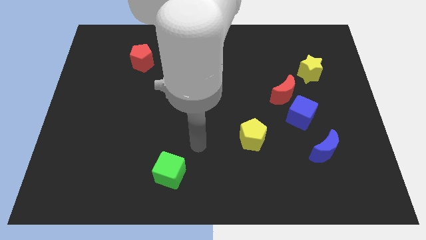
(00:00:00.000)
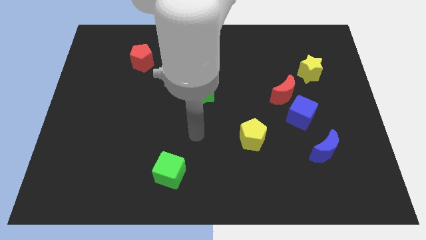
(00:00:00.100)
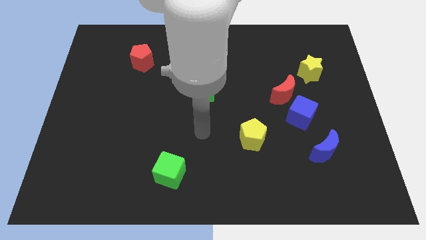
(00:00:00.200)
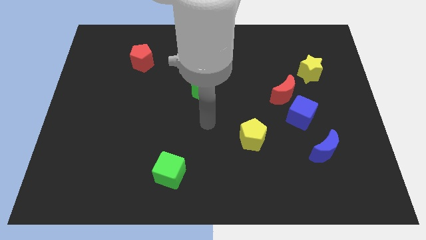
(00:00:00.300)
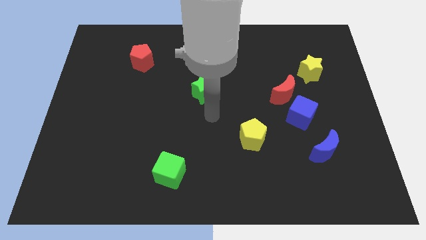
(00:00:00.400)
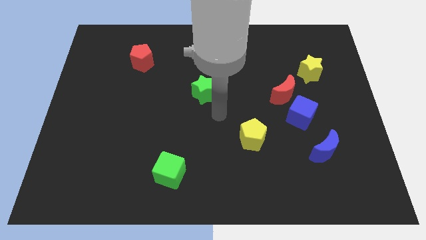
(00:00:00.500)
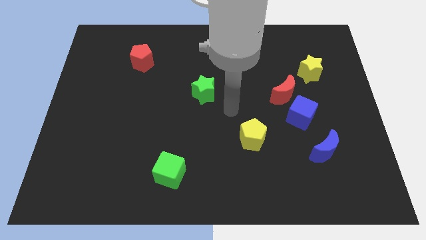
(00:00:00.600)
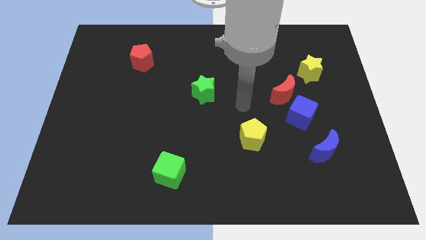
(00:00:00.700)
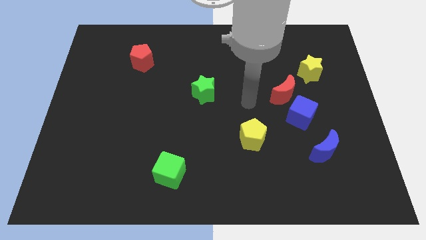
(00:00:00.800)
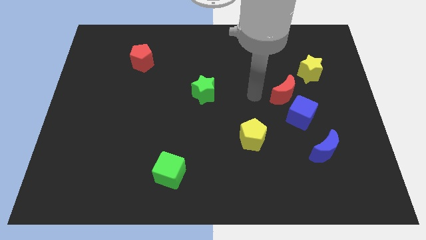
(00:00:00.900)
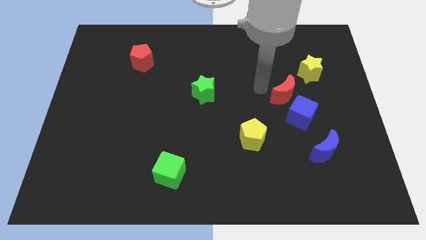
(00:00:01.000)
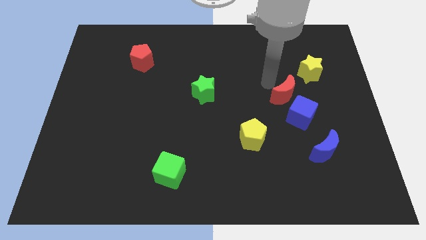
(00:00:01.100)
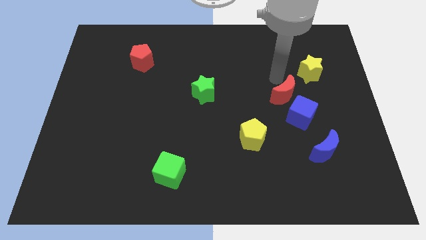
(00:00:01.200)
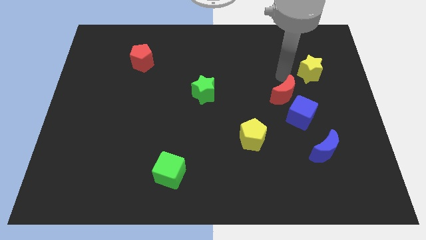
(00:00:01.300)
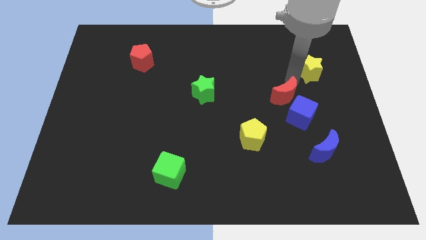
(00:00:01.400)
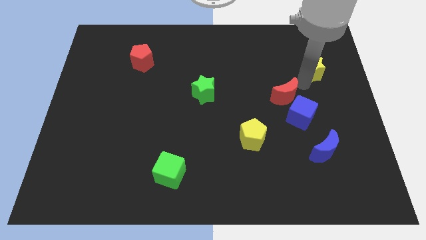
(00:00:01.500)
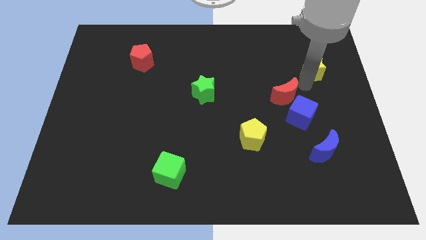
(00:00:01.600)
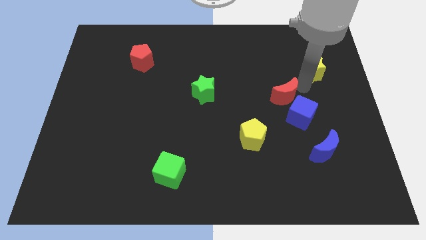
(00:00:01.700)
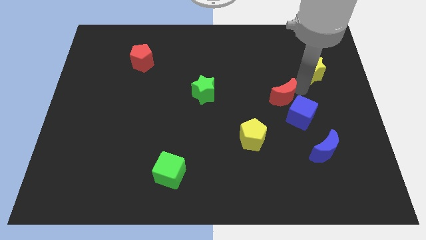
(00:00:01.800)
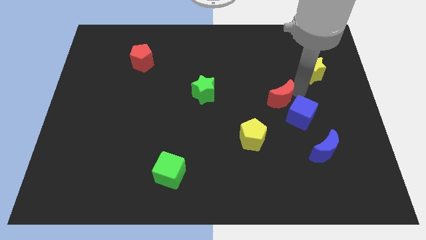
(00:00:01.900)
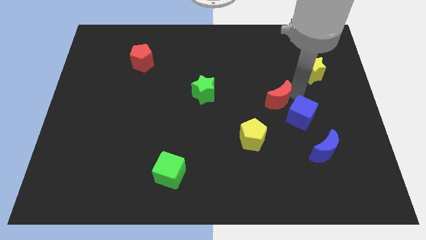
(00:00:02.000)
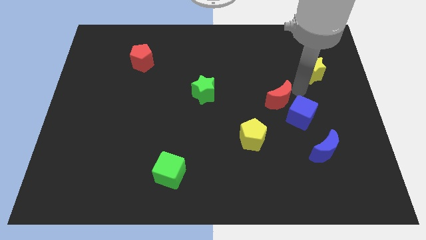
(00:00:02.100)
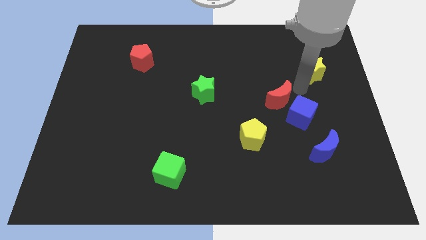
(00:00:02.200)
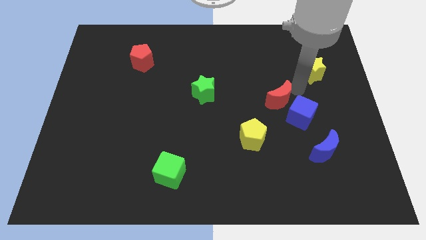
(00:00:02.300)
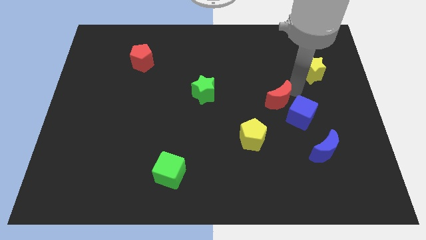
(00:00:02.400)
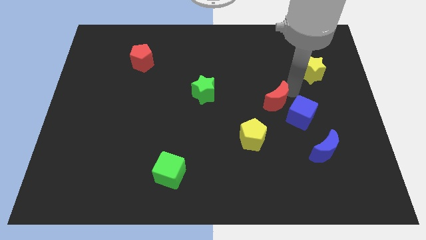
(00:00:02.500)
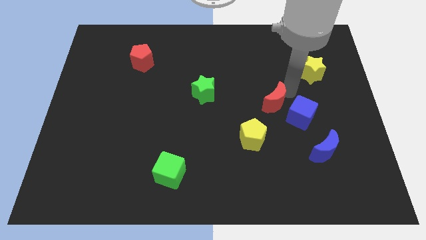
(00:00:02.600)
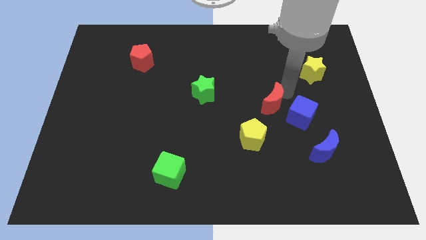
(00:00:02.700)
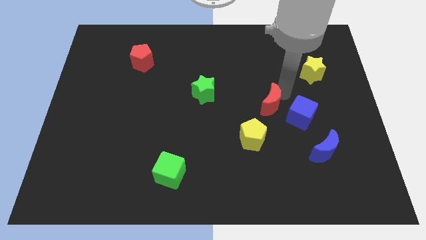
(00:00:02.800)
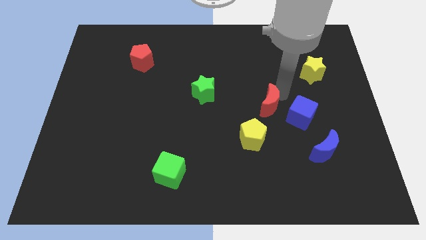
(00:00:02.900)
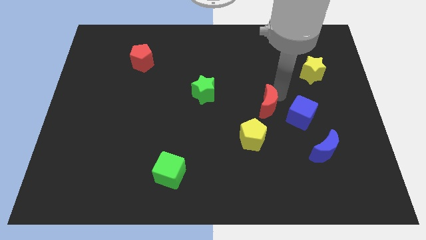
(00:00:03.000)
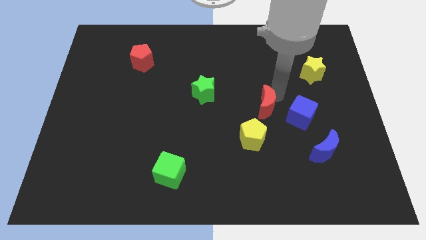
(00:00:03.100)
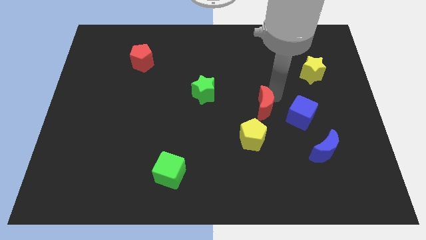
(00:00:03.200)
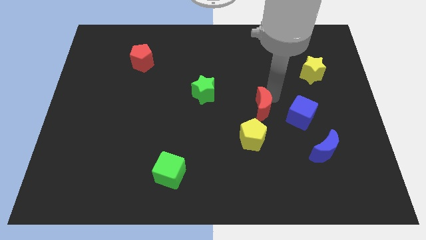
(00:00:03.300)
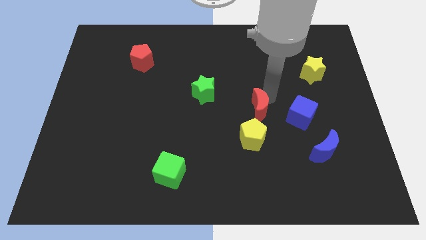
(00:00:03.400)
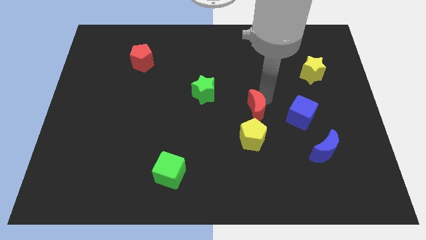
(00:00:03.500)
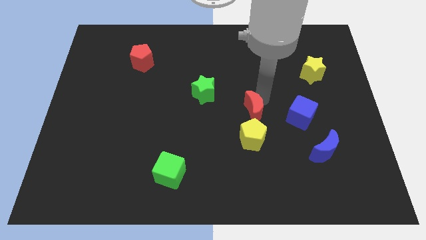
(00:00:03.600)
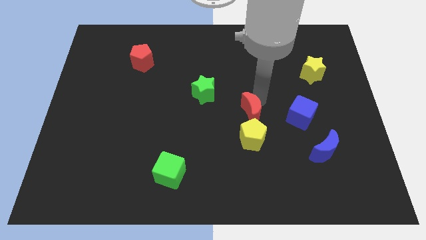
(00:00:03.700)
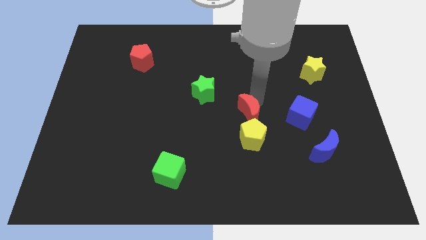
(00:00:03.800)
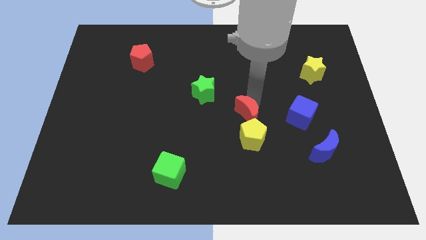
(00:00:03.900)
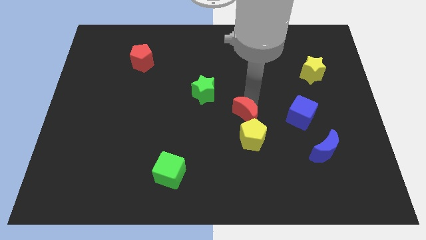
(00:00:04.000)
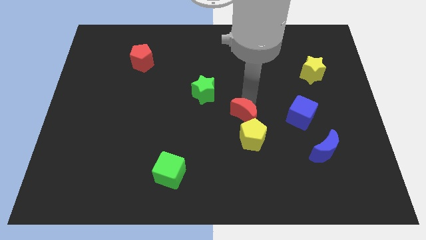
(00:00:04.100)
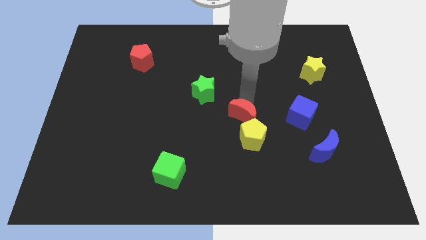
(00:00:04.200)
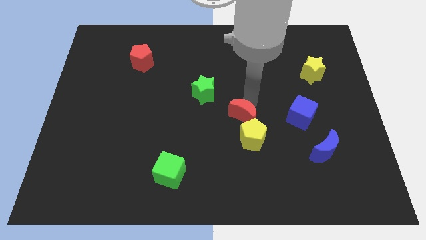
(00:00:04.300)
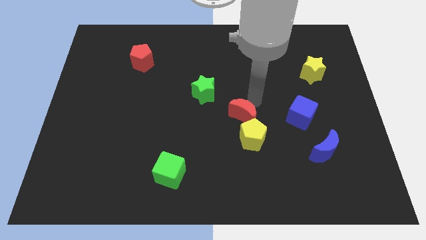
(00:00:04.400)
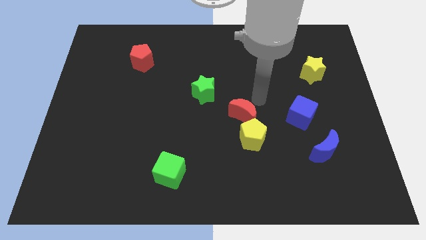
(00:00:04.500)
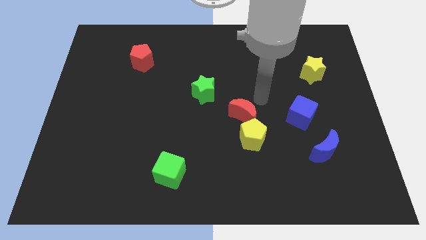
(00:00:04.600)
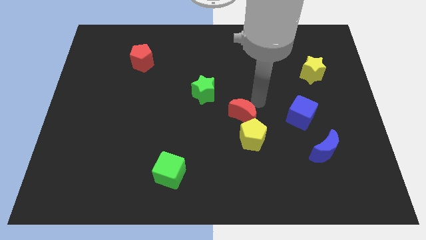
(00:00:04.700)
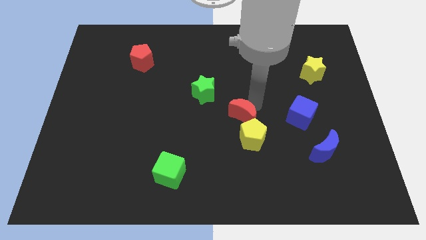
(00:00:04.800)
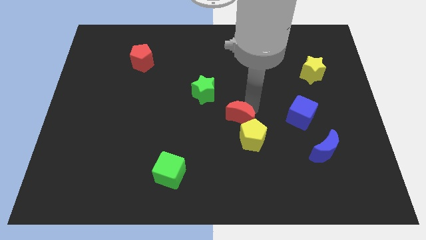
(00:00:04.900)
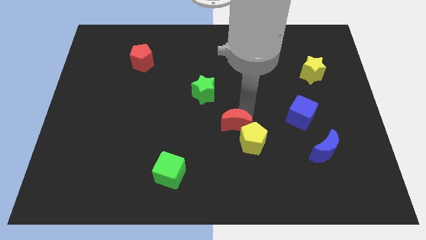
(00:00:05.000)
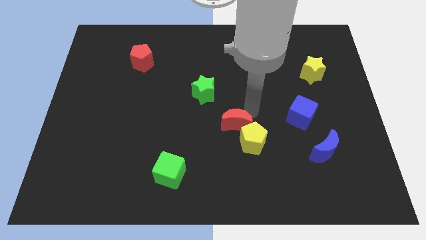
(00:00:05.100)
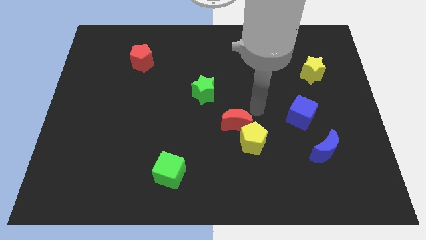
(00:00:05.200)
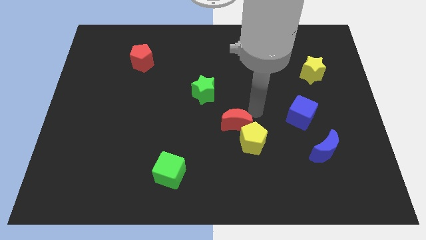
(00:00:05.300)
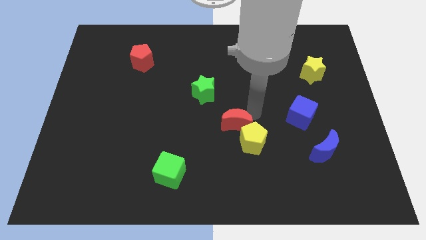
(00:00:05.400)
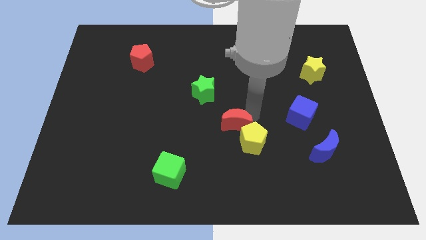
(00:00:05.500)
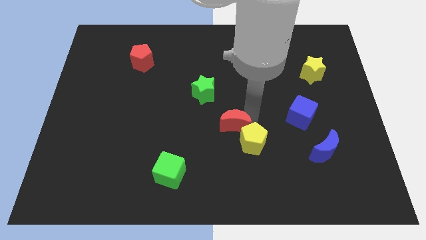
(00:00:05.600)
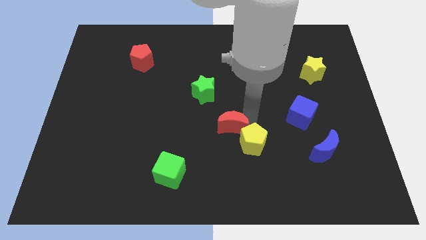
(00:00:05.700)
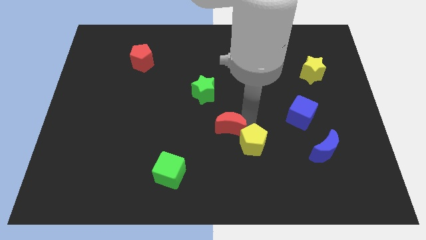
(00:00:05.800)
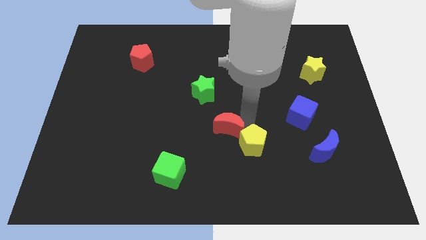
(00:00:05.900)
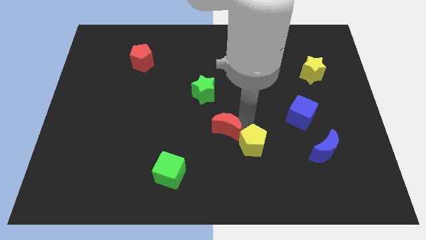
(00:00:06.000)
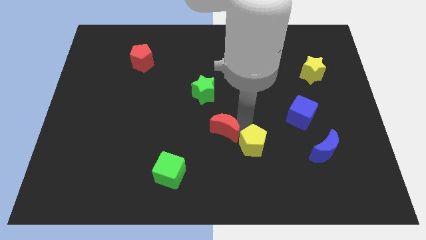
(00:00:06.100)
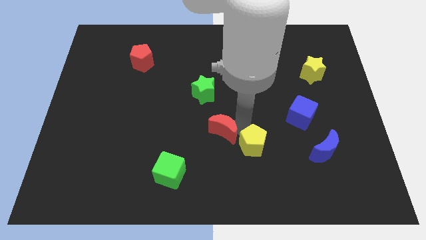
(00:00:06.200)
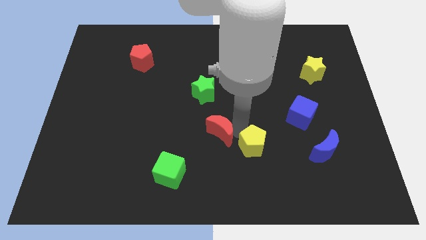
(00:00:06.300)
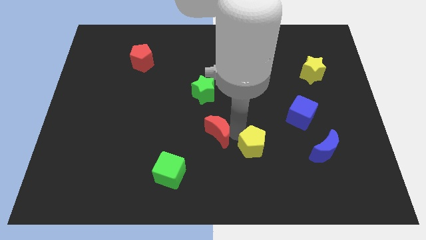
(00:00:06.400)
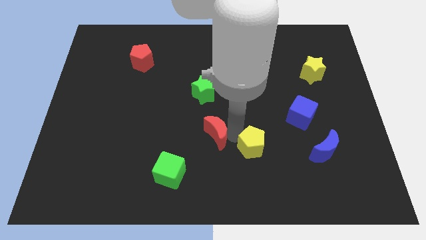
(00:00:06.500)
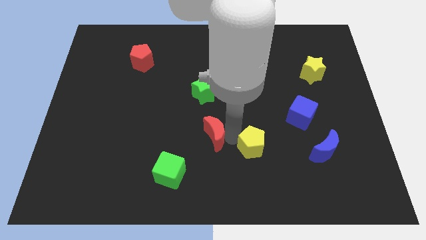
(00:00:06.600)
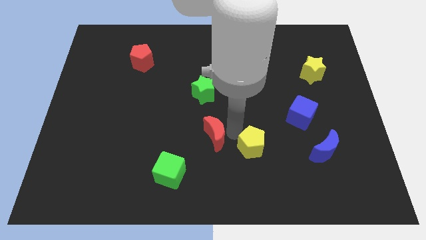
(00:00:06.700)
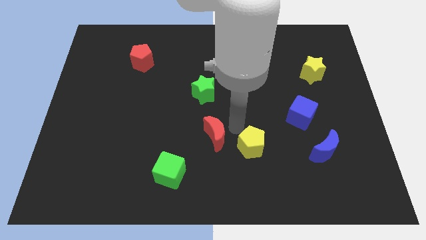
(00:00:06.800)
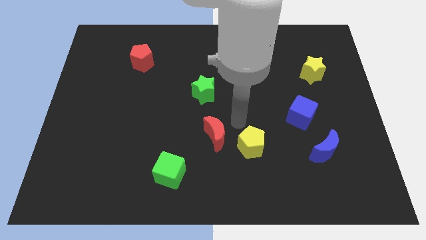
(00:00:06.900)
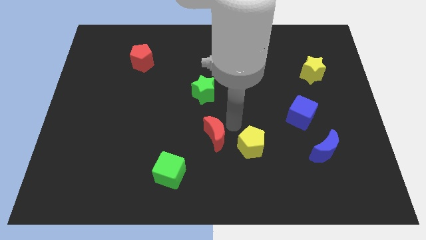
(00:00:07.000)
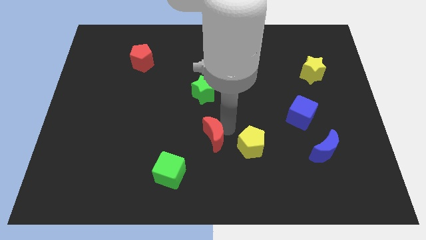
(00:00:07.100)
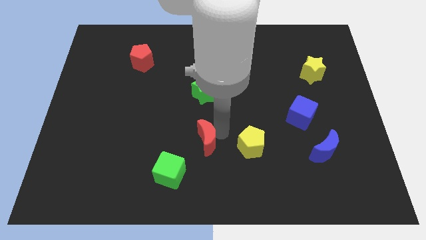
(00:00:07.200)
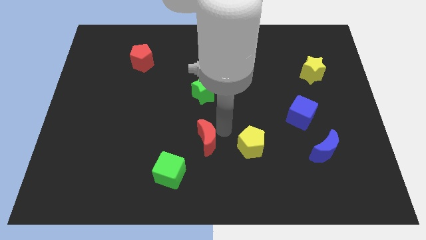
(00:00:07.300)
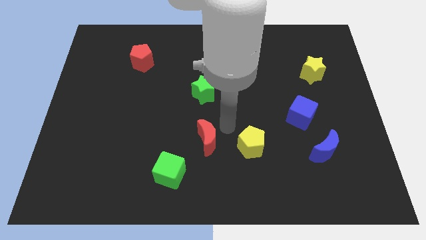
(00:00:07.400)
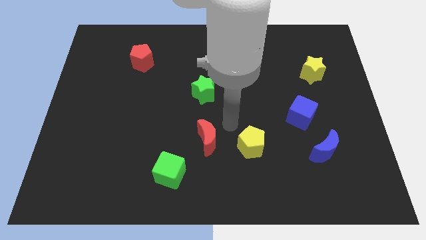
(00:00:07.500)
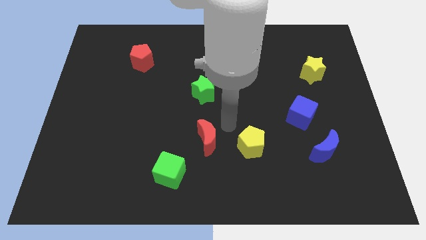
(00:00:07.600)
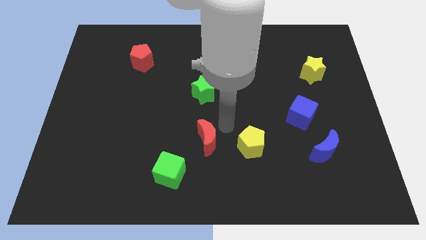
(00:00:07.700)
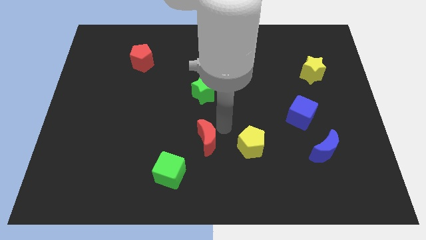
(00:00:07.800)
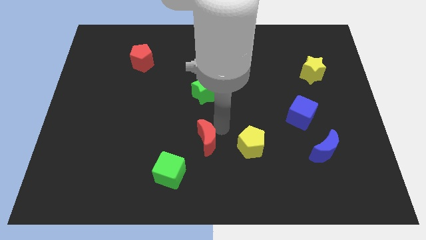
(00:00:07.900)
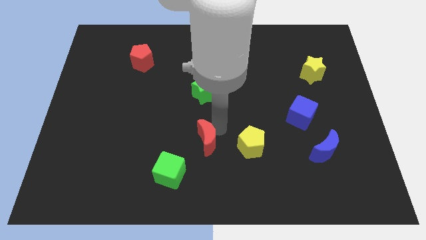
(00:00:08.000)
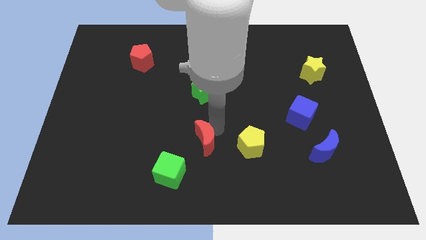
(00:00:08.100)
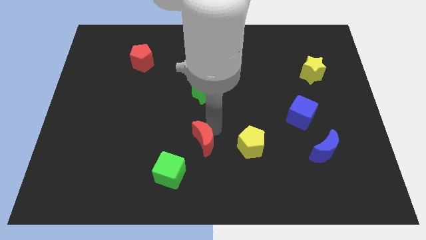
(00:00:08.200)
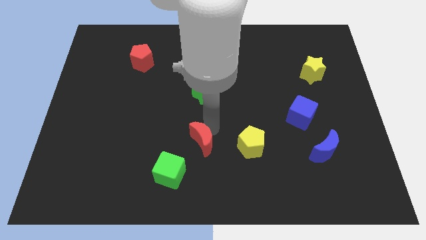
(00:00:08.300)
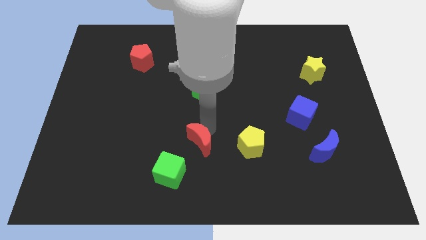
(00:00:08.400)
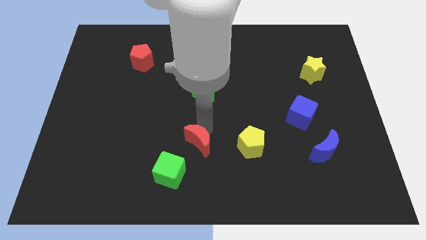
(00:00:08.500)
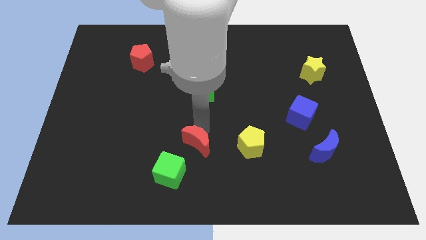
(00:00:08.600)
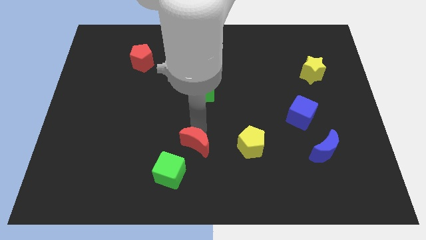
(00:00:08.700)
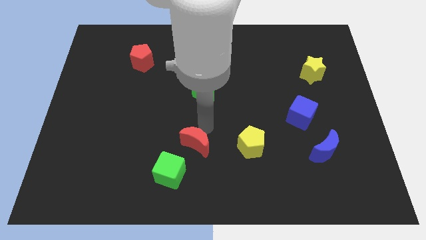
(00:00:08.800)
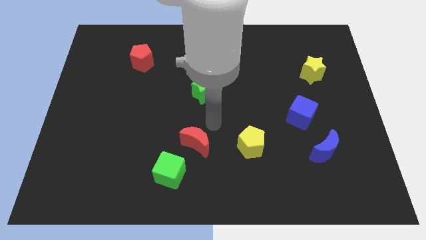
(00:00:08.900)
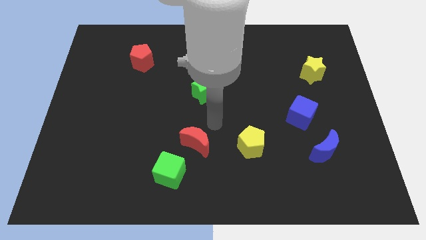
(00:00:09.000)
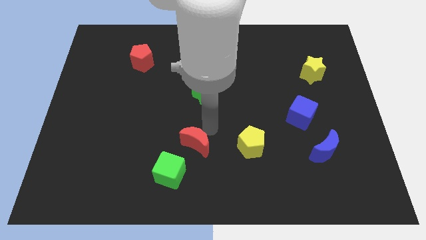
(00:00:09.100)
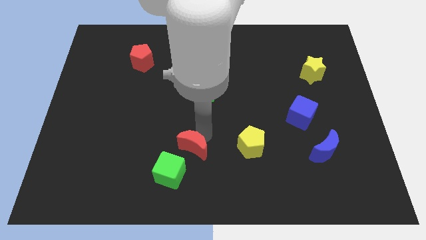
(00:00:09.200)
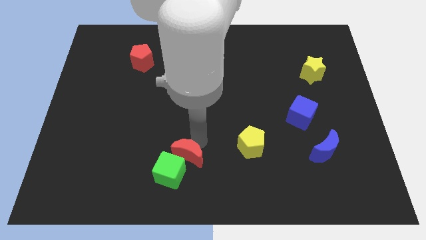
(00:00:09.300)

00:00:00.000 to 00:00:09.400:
put the red moon close to the green cube
